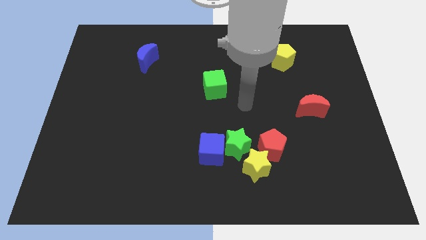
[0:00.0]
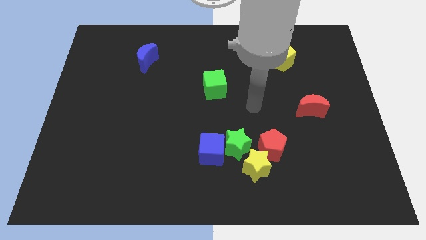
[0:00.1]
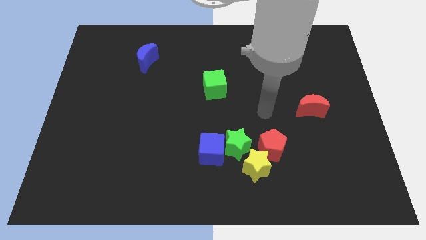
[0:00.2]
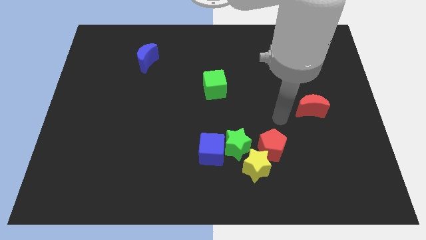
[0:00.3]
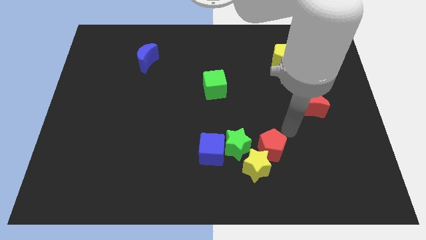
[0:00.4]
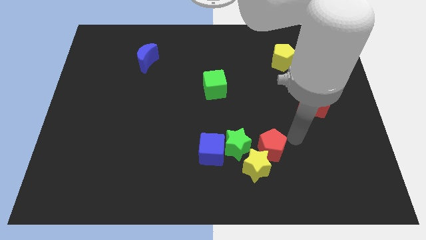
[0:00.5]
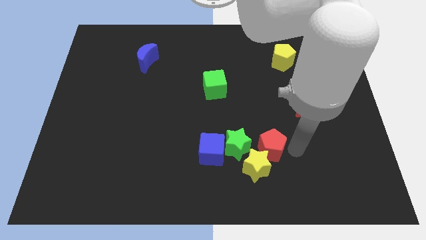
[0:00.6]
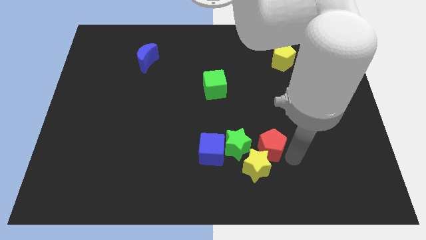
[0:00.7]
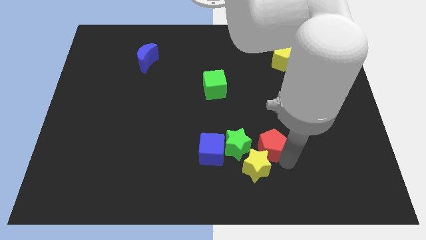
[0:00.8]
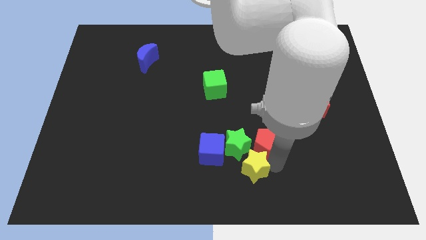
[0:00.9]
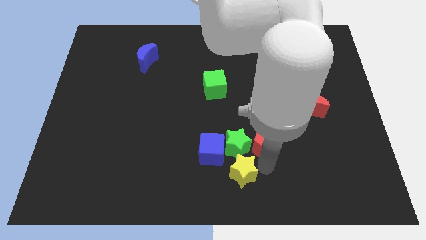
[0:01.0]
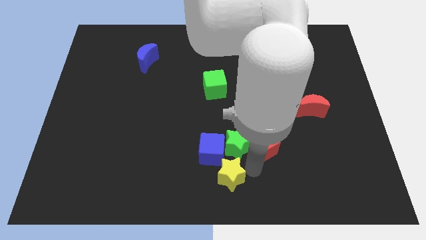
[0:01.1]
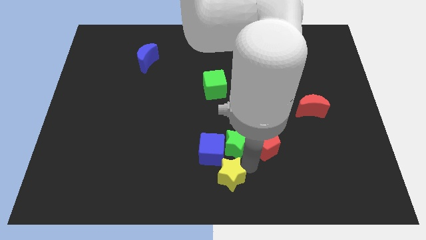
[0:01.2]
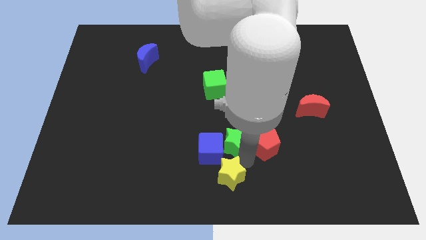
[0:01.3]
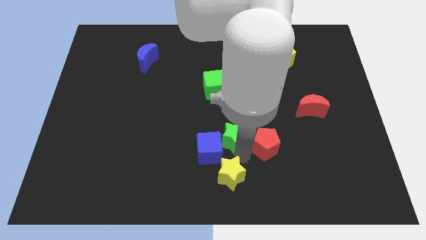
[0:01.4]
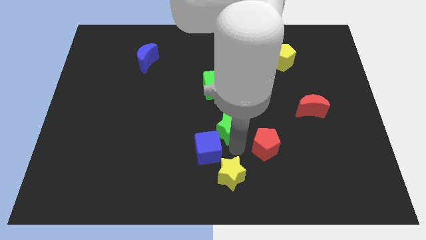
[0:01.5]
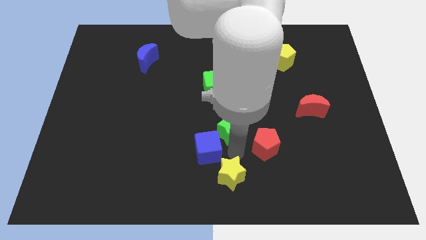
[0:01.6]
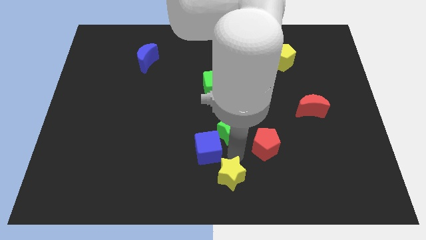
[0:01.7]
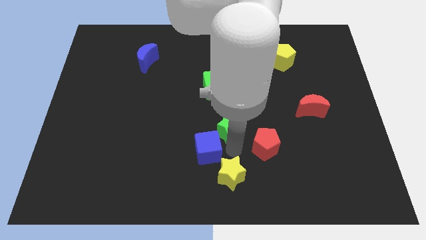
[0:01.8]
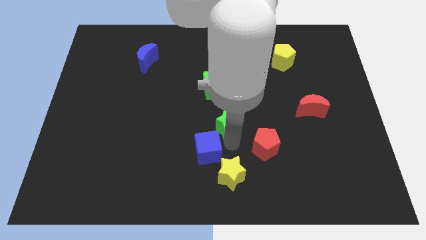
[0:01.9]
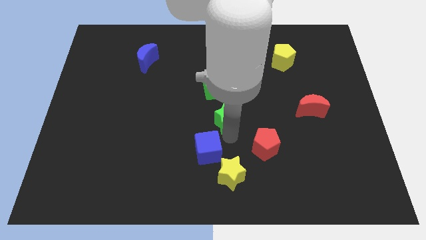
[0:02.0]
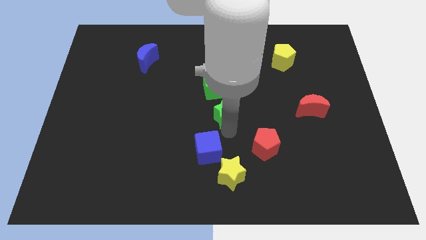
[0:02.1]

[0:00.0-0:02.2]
separate the green star from the group of blocks

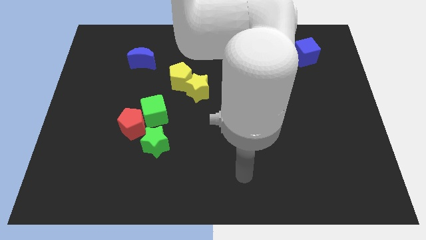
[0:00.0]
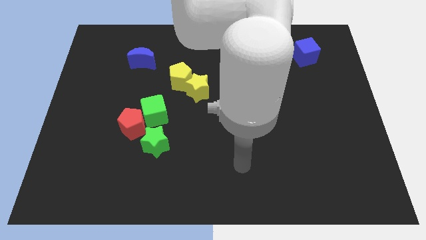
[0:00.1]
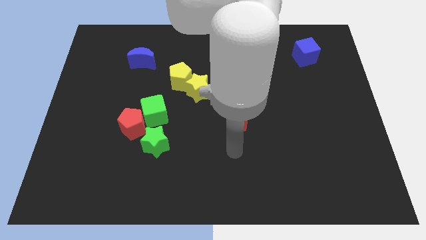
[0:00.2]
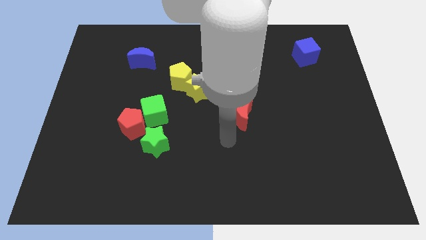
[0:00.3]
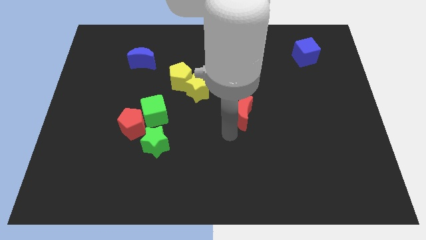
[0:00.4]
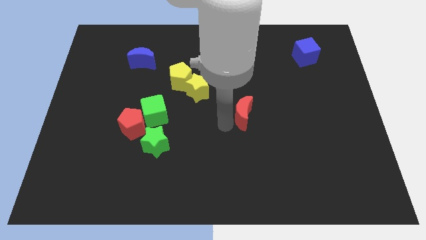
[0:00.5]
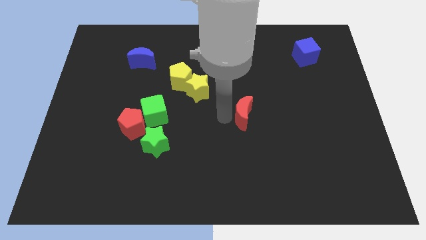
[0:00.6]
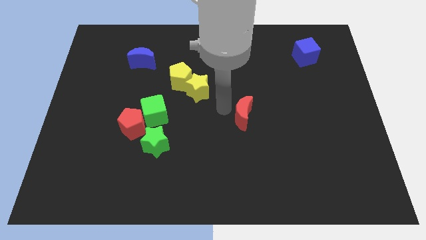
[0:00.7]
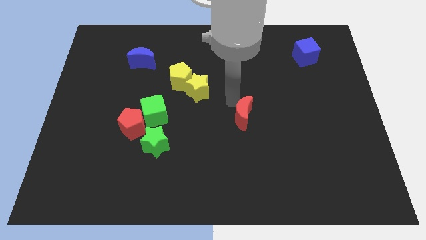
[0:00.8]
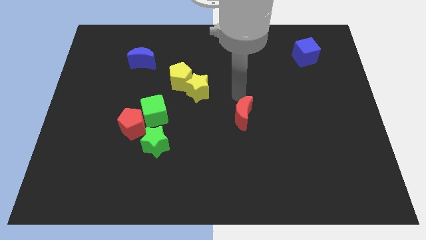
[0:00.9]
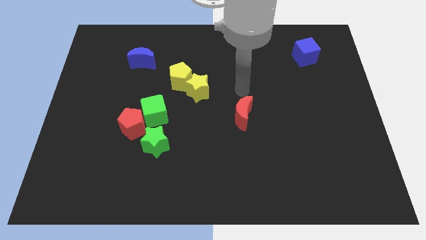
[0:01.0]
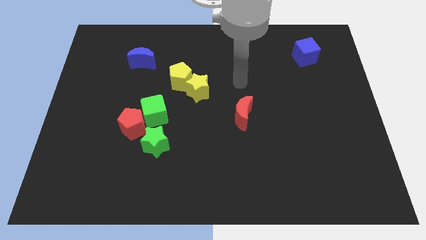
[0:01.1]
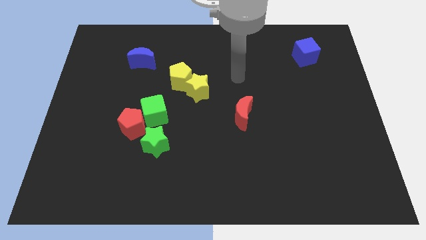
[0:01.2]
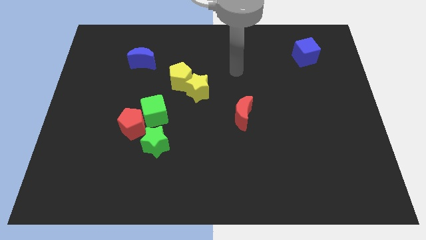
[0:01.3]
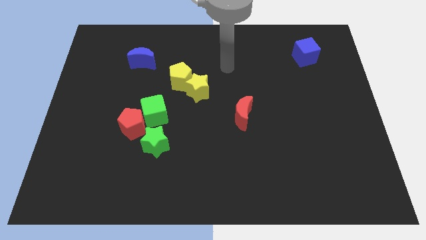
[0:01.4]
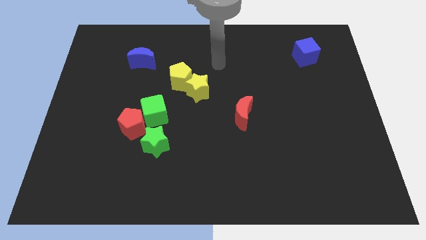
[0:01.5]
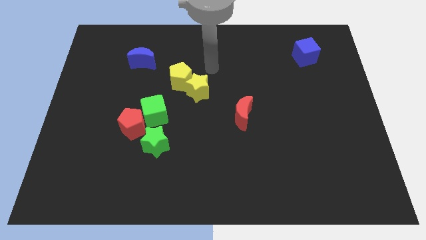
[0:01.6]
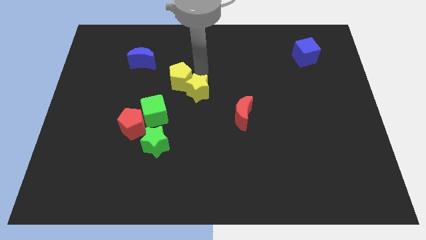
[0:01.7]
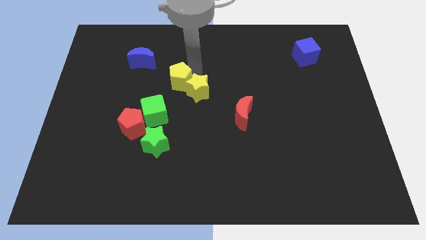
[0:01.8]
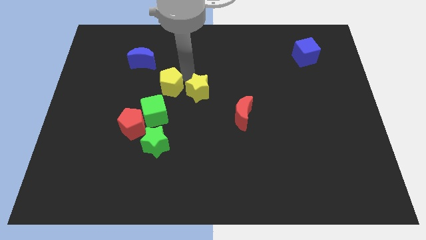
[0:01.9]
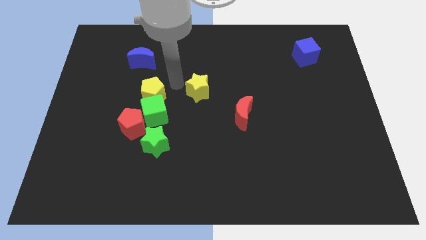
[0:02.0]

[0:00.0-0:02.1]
move the yellow star away from the yellow pentagon

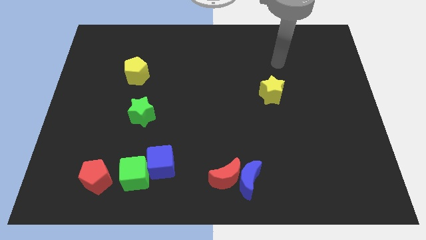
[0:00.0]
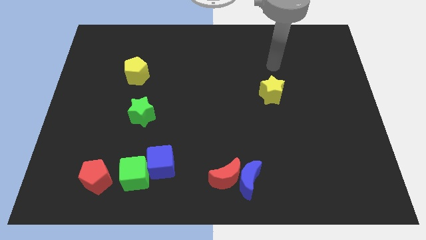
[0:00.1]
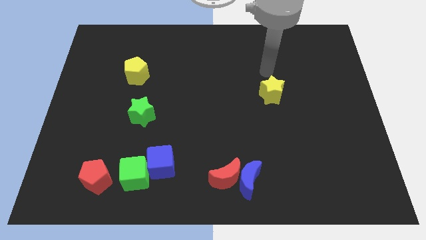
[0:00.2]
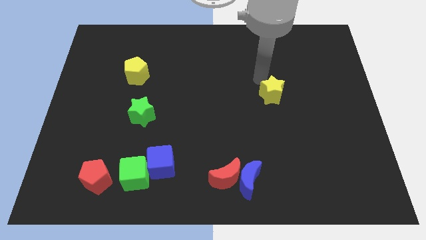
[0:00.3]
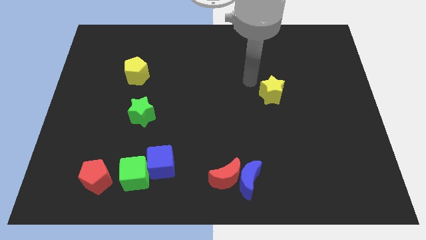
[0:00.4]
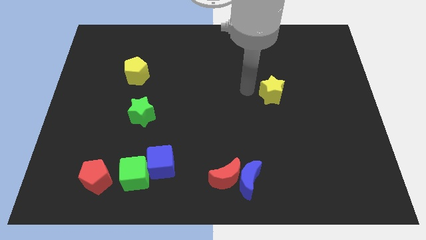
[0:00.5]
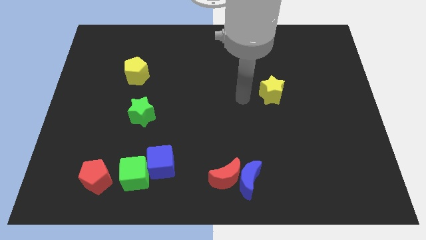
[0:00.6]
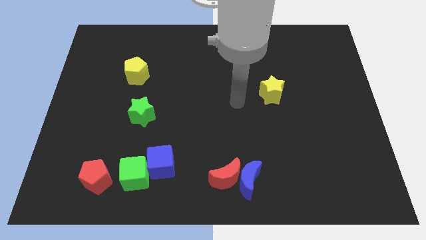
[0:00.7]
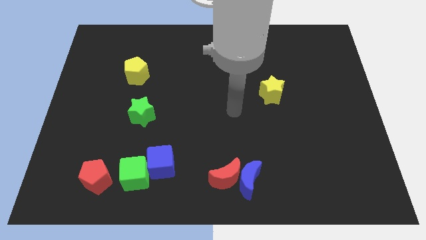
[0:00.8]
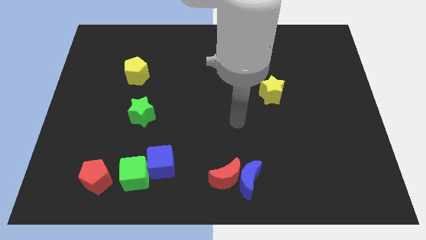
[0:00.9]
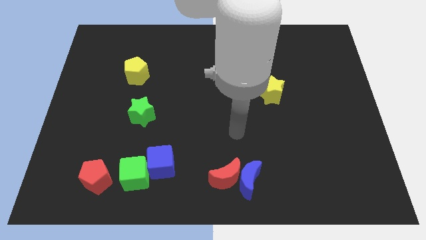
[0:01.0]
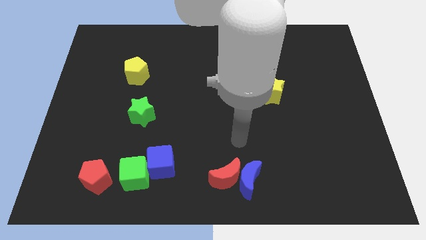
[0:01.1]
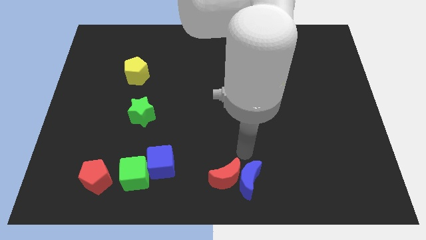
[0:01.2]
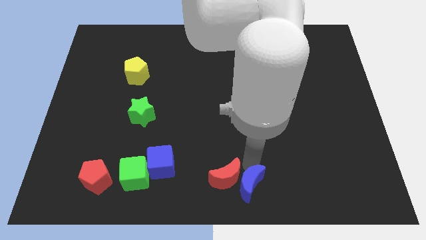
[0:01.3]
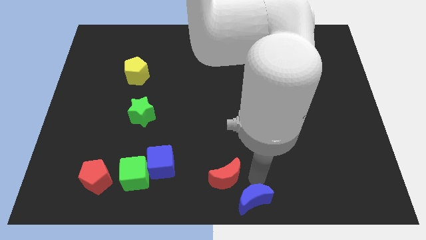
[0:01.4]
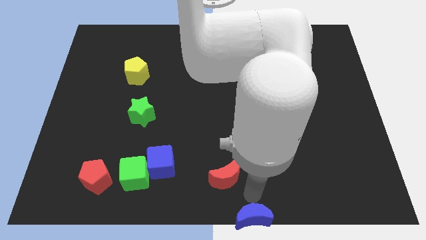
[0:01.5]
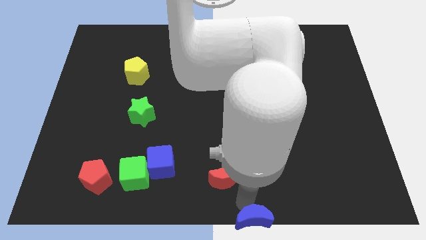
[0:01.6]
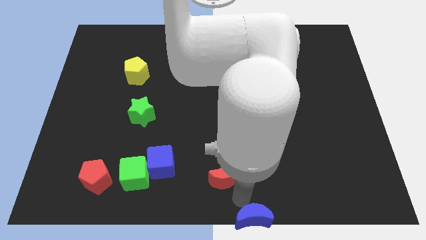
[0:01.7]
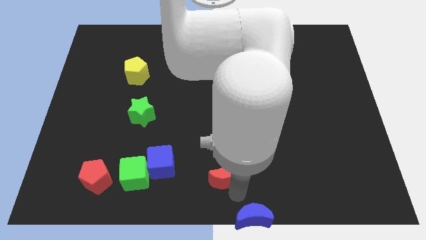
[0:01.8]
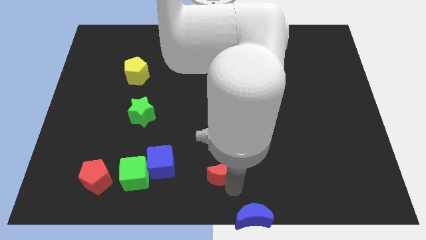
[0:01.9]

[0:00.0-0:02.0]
move the red moon away from the blue moon

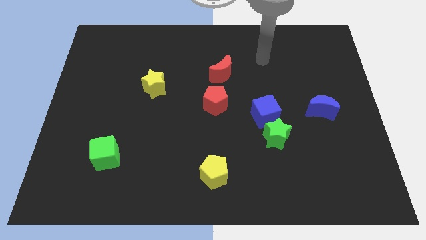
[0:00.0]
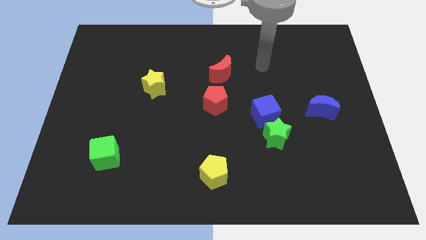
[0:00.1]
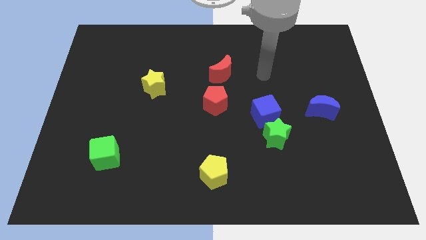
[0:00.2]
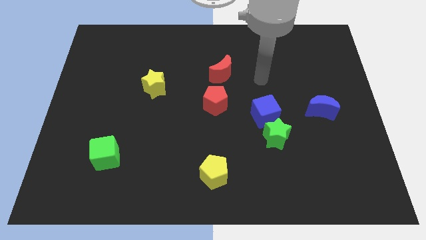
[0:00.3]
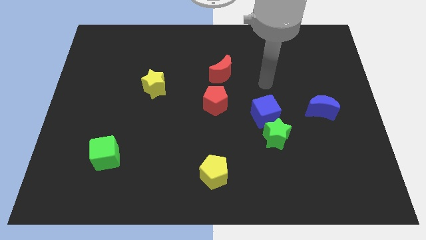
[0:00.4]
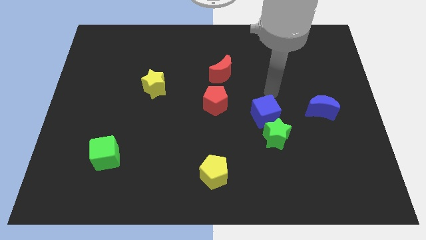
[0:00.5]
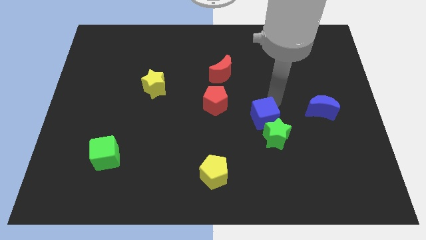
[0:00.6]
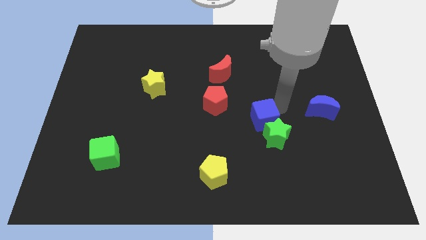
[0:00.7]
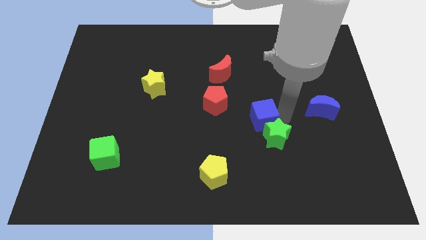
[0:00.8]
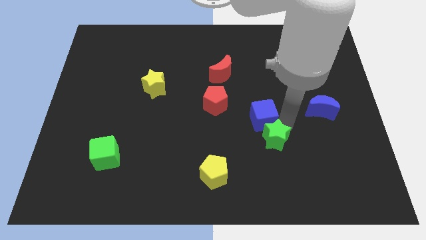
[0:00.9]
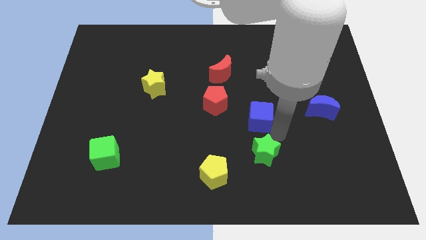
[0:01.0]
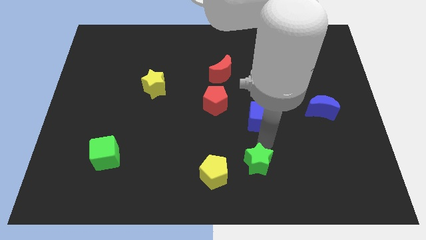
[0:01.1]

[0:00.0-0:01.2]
separate the blue cube from the green star

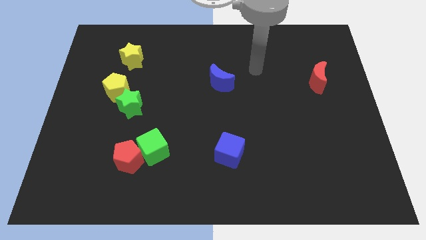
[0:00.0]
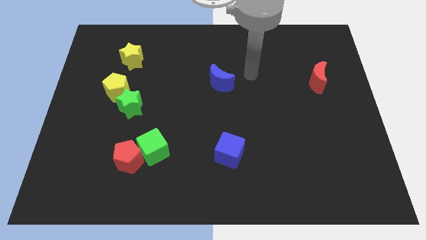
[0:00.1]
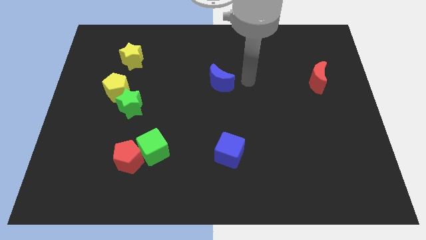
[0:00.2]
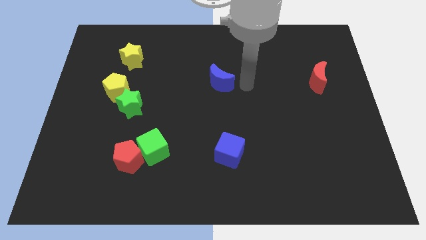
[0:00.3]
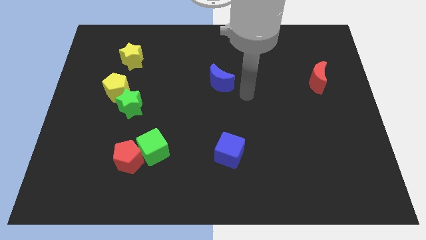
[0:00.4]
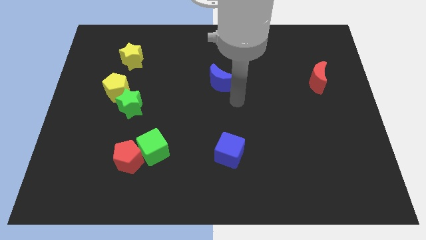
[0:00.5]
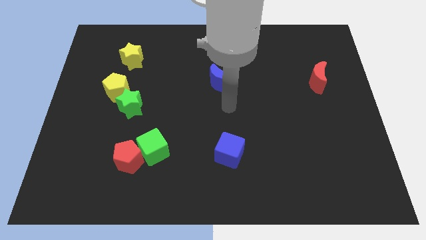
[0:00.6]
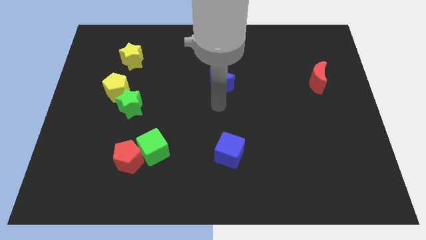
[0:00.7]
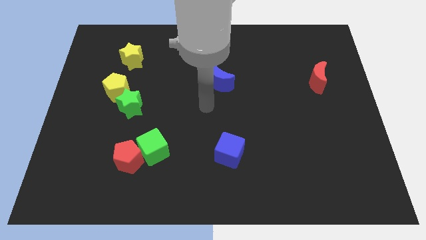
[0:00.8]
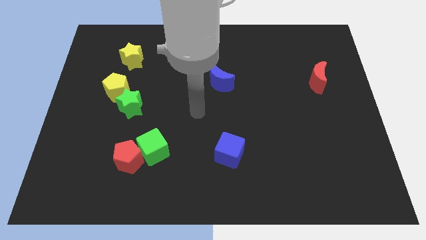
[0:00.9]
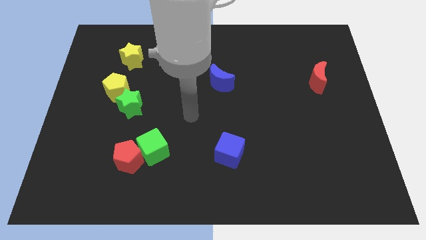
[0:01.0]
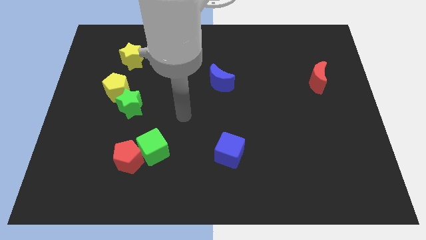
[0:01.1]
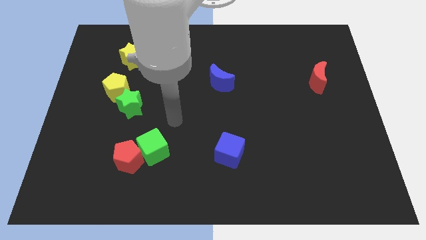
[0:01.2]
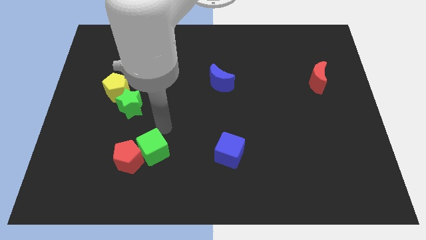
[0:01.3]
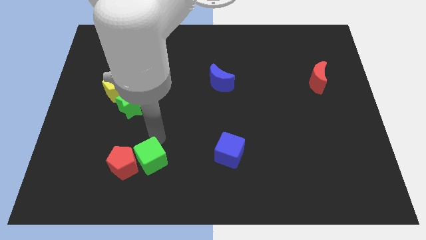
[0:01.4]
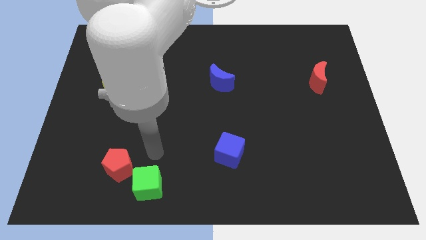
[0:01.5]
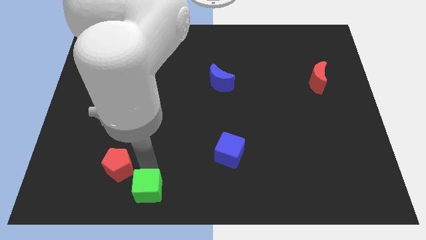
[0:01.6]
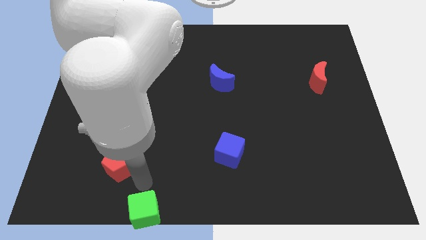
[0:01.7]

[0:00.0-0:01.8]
move the red pentagon away from the green cube
